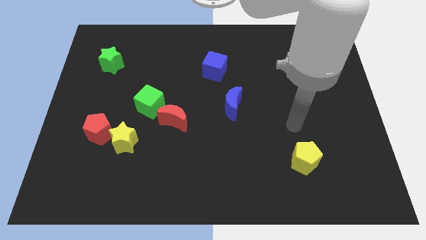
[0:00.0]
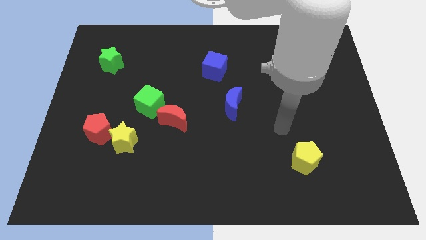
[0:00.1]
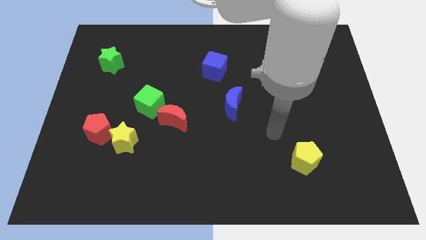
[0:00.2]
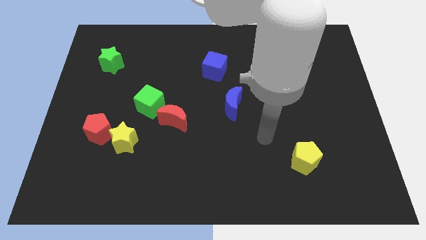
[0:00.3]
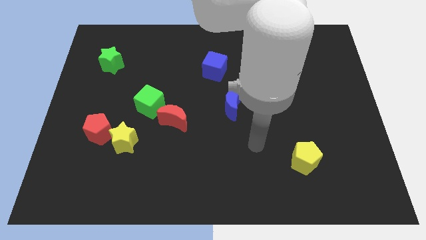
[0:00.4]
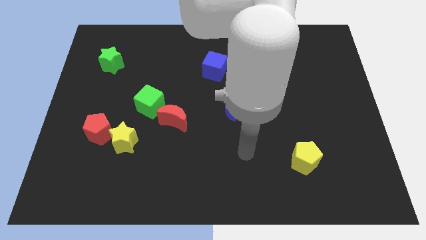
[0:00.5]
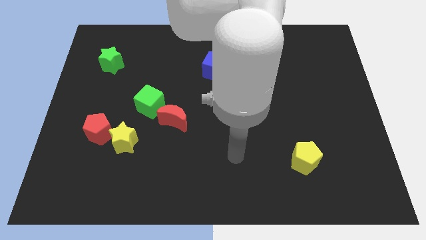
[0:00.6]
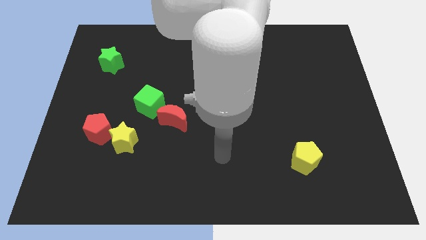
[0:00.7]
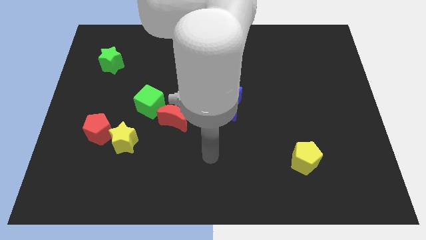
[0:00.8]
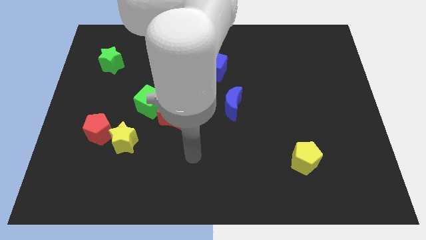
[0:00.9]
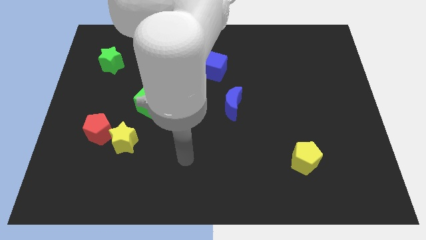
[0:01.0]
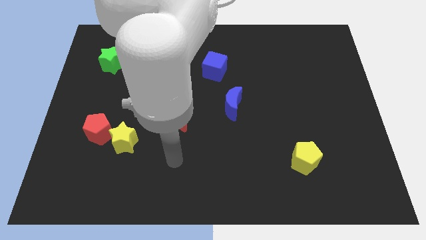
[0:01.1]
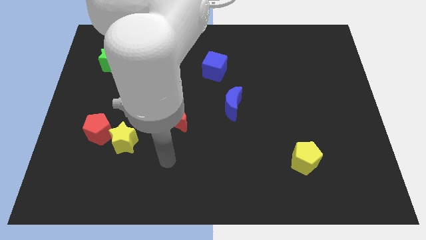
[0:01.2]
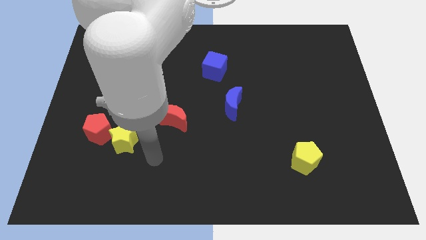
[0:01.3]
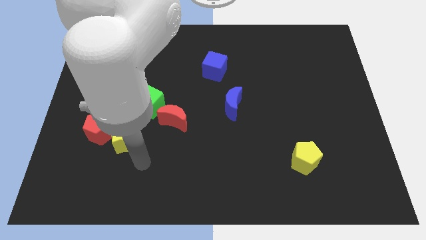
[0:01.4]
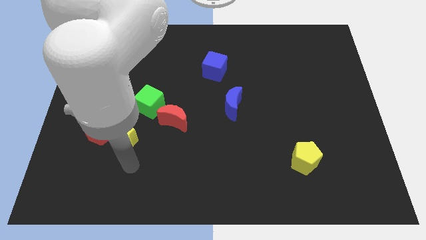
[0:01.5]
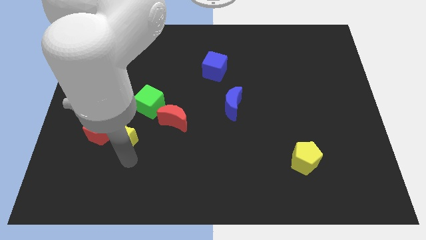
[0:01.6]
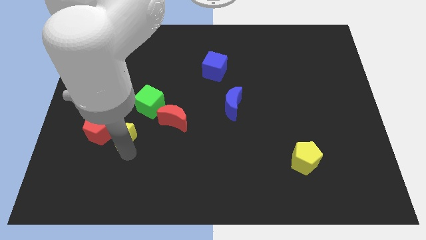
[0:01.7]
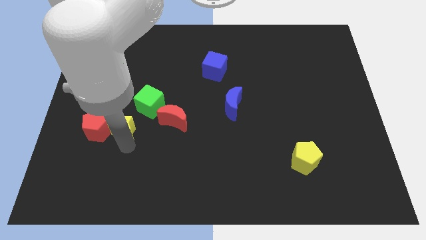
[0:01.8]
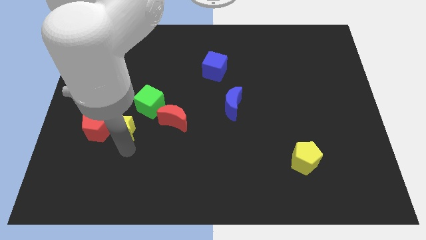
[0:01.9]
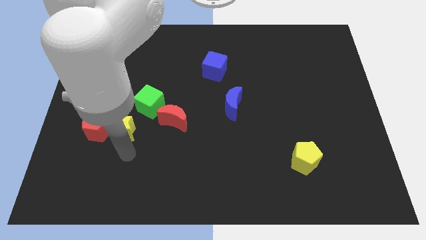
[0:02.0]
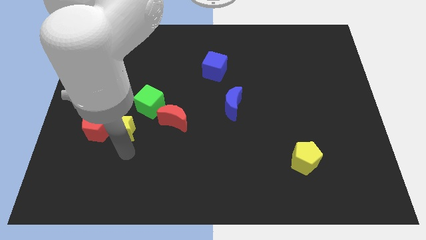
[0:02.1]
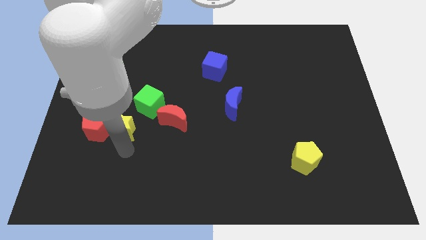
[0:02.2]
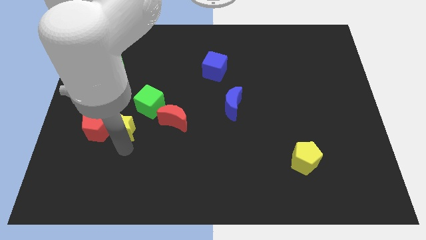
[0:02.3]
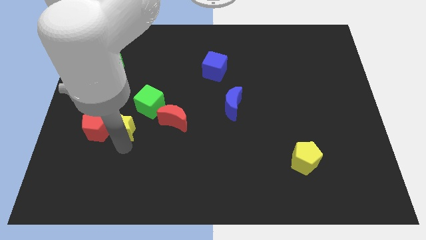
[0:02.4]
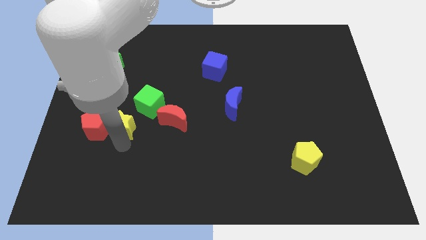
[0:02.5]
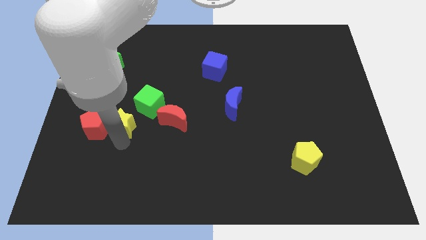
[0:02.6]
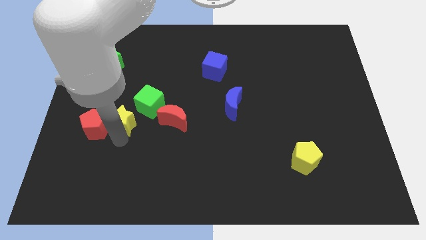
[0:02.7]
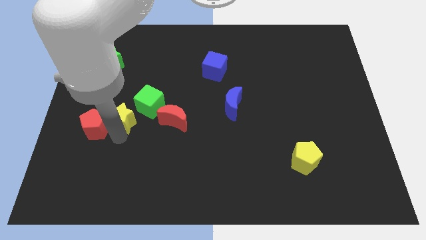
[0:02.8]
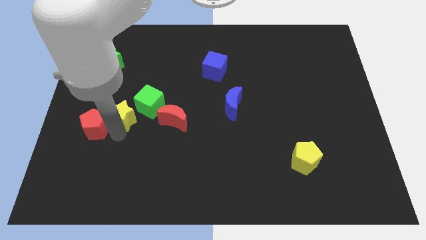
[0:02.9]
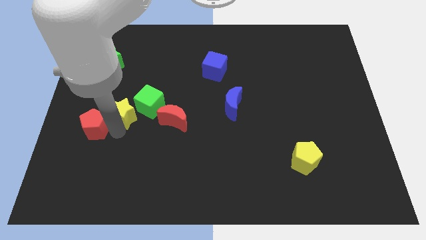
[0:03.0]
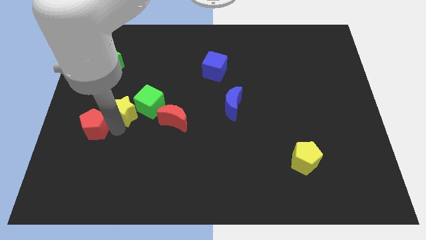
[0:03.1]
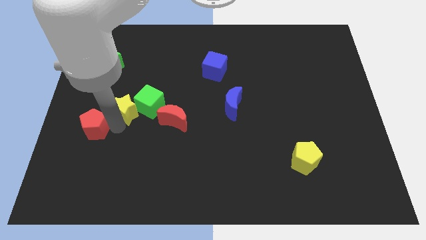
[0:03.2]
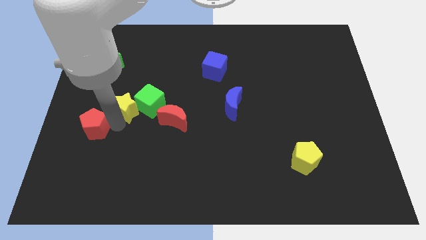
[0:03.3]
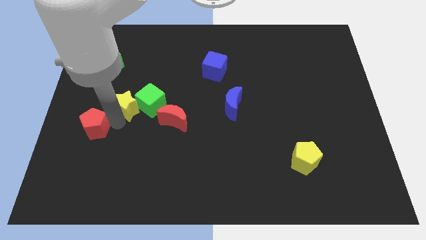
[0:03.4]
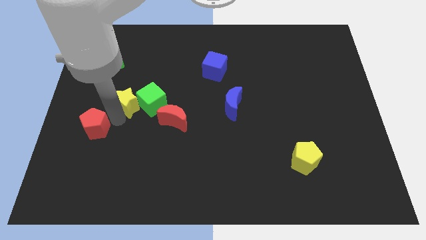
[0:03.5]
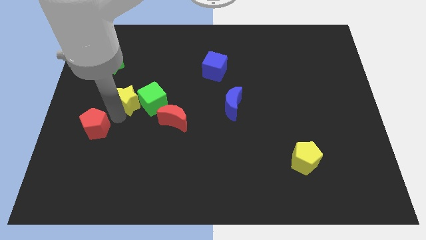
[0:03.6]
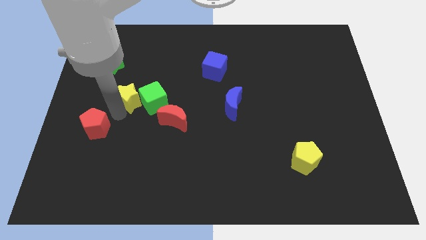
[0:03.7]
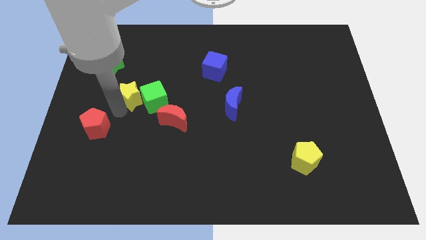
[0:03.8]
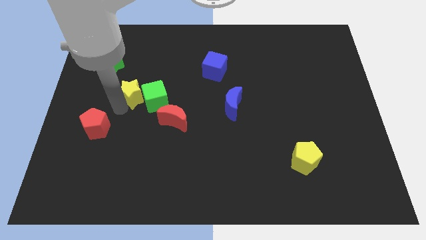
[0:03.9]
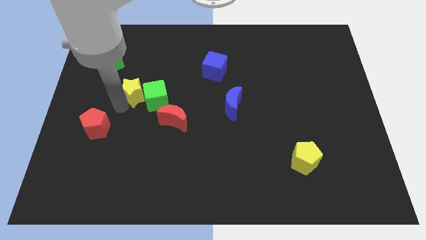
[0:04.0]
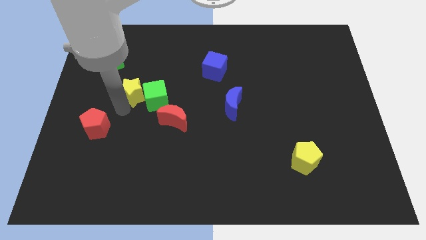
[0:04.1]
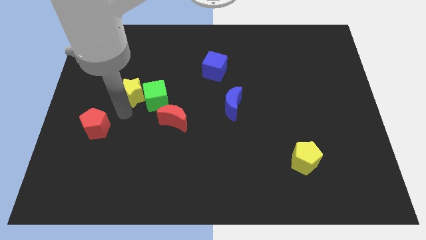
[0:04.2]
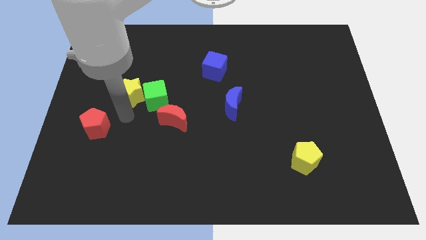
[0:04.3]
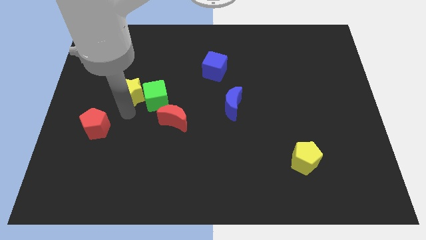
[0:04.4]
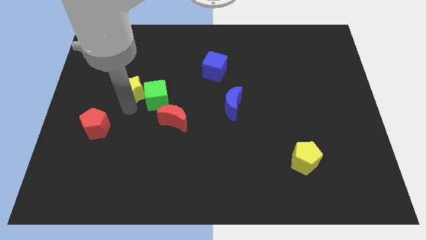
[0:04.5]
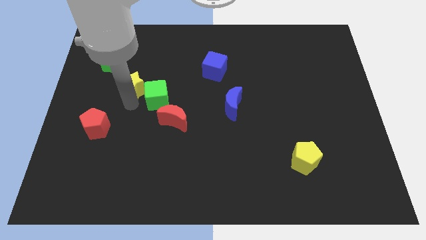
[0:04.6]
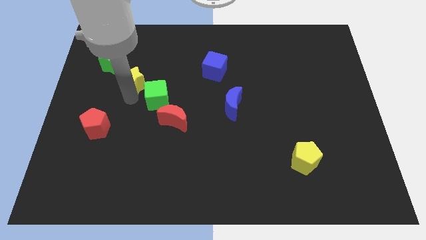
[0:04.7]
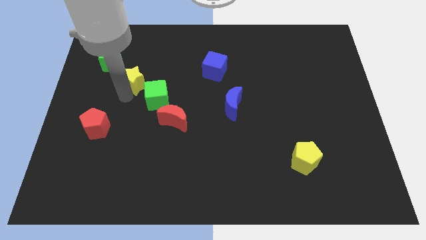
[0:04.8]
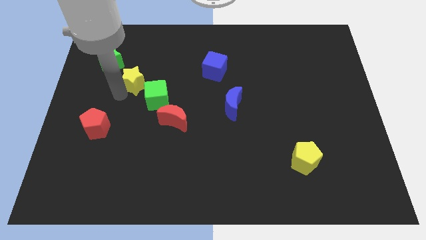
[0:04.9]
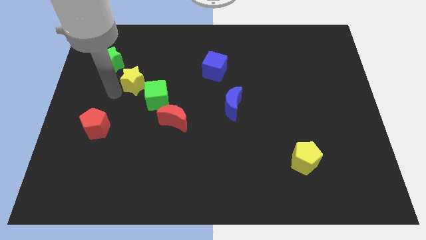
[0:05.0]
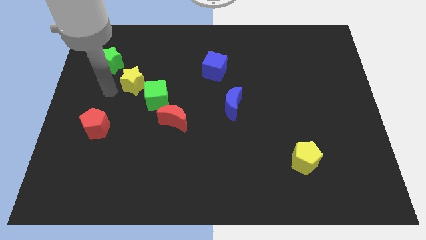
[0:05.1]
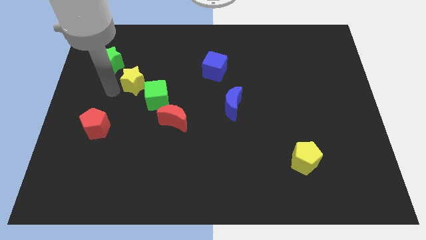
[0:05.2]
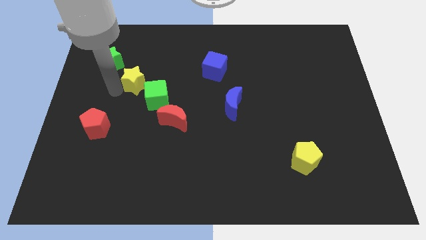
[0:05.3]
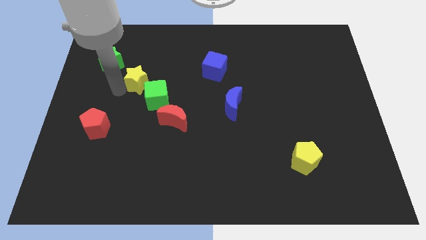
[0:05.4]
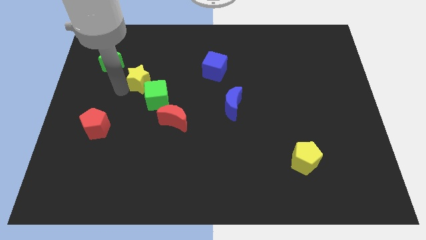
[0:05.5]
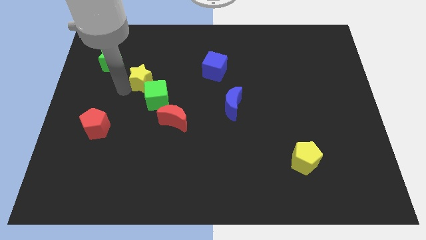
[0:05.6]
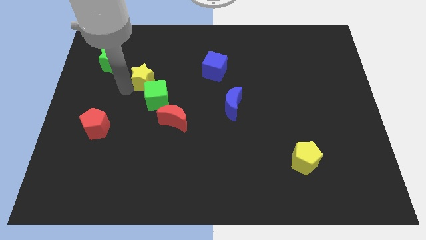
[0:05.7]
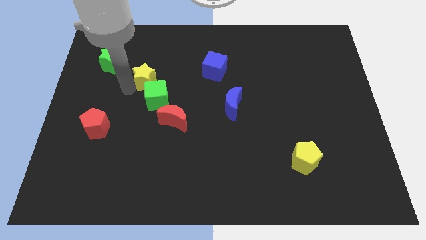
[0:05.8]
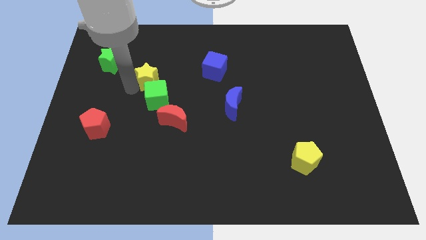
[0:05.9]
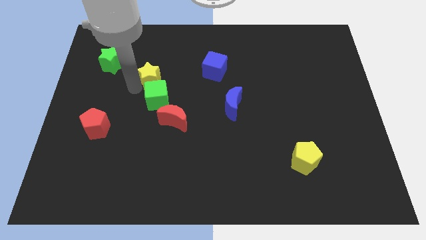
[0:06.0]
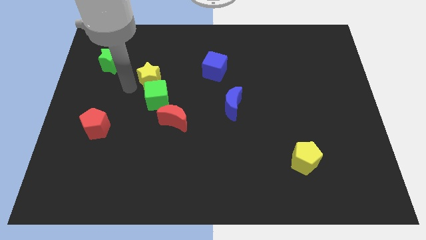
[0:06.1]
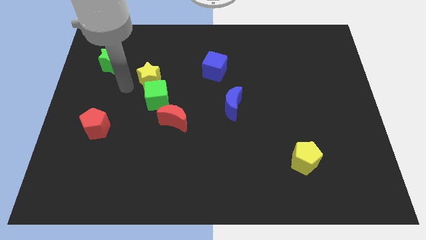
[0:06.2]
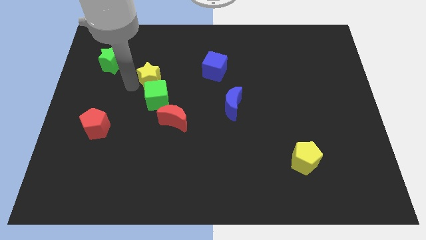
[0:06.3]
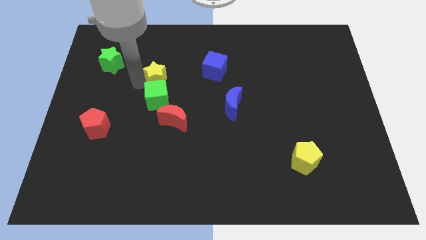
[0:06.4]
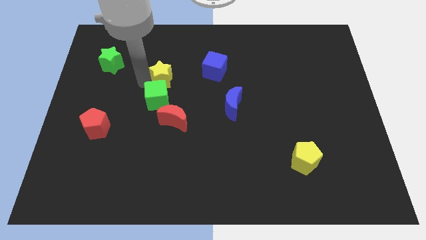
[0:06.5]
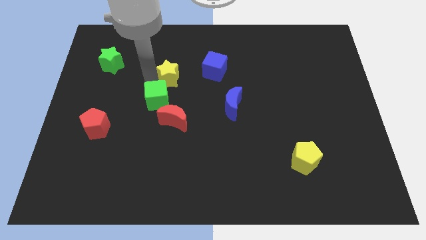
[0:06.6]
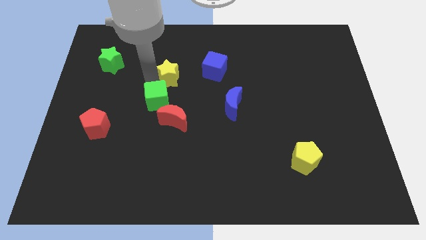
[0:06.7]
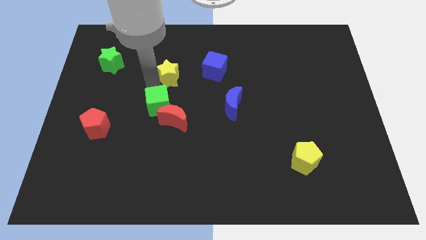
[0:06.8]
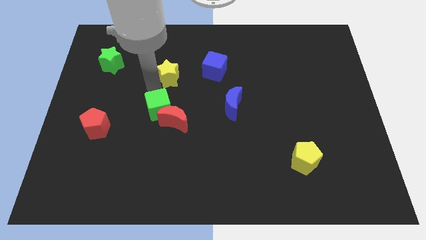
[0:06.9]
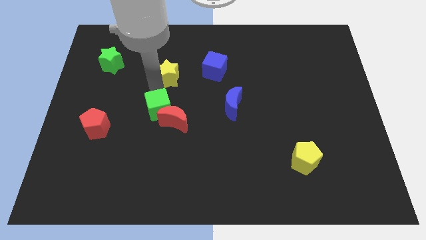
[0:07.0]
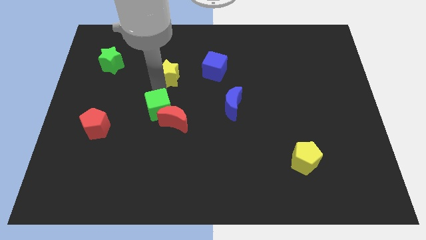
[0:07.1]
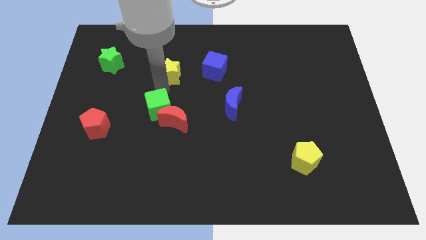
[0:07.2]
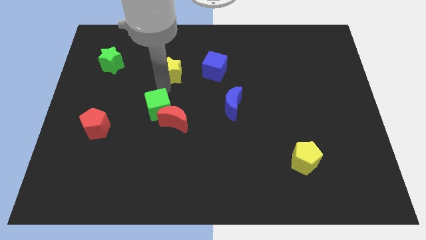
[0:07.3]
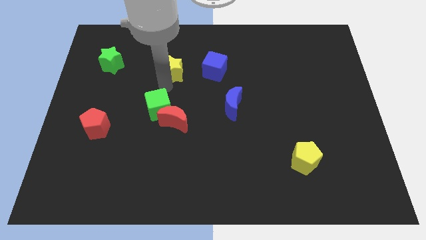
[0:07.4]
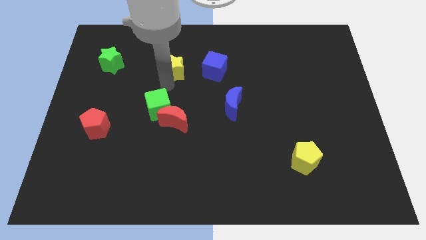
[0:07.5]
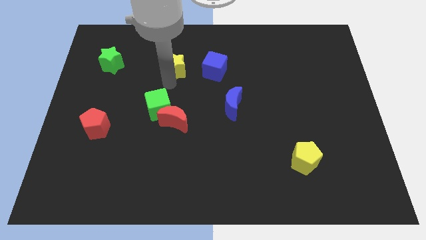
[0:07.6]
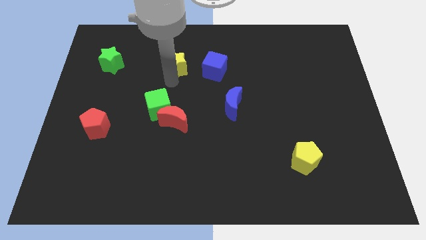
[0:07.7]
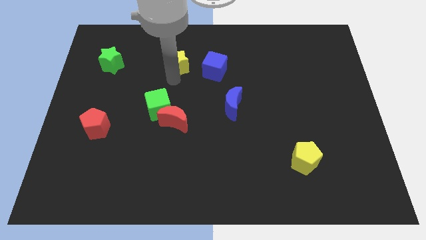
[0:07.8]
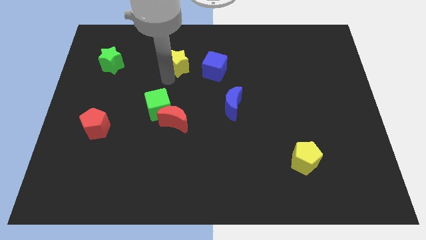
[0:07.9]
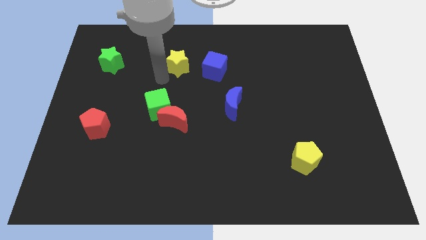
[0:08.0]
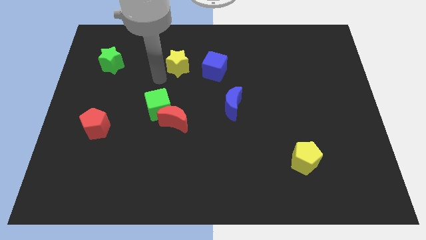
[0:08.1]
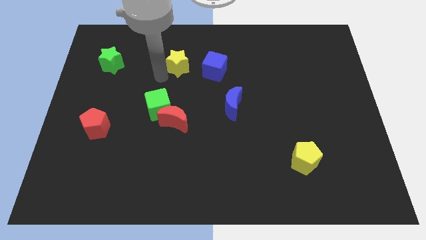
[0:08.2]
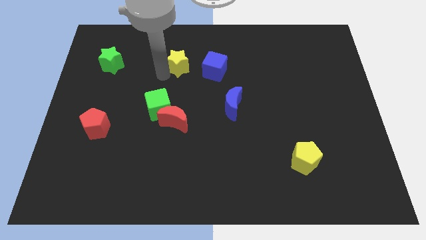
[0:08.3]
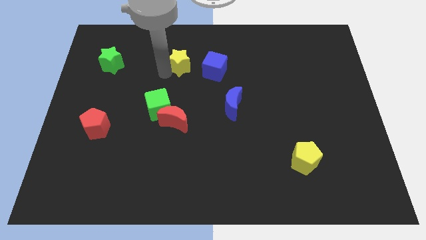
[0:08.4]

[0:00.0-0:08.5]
put the yellow star diagonally up and to the left of the blue cube
